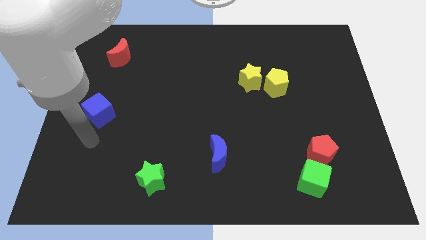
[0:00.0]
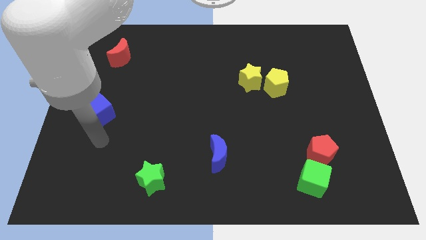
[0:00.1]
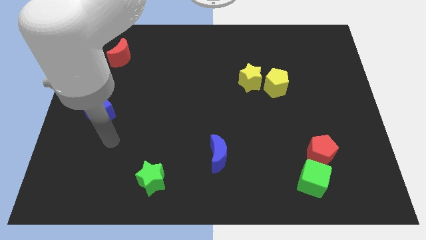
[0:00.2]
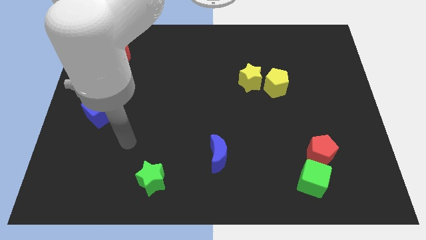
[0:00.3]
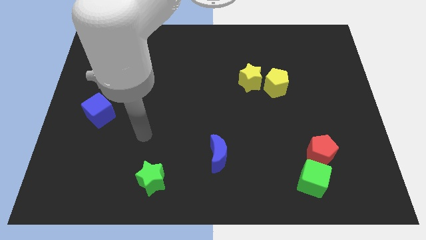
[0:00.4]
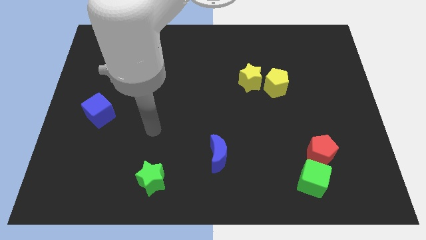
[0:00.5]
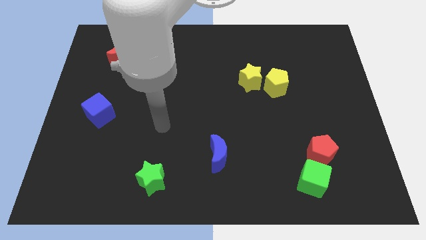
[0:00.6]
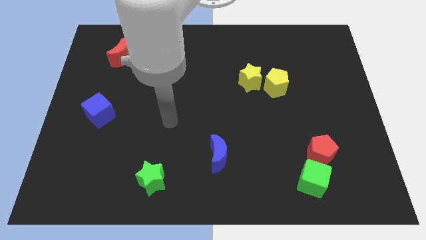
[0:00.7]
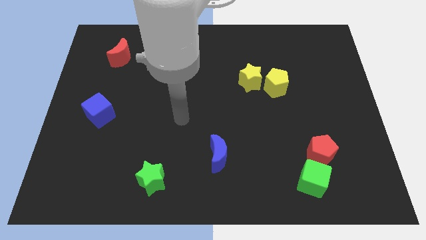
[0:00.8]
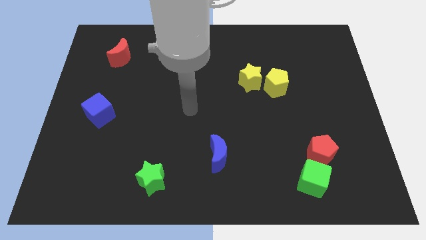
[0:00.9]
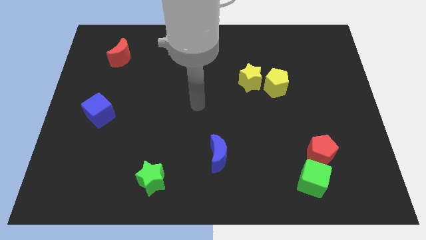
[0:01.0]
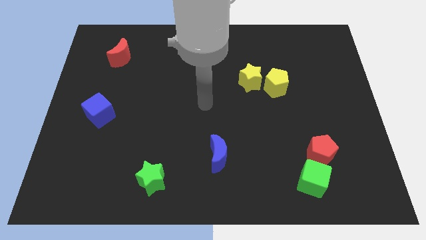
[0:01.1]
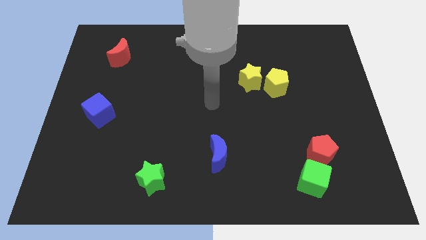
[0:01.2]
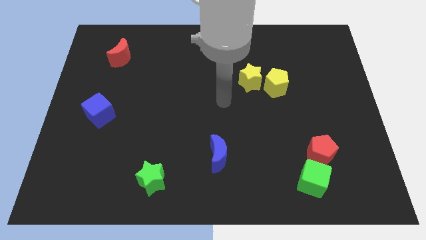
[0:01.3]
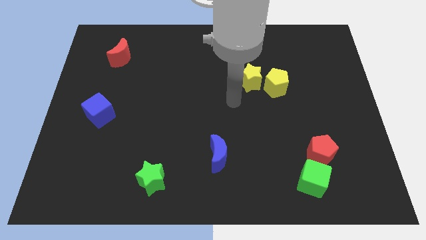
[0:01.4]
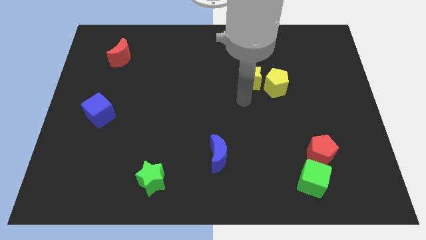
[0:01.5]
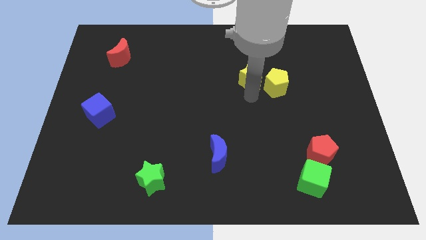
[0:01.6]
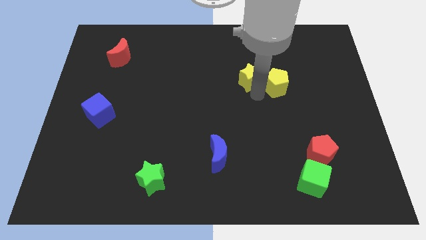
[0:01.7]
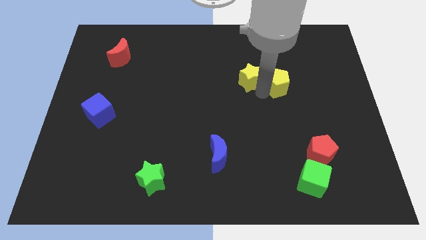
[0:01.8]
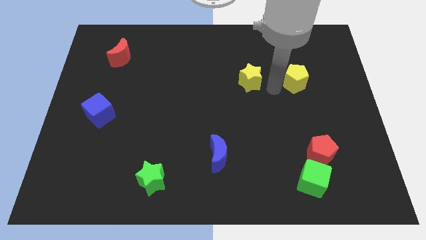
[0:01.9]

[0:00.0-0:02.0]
move the yellow star away from the yellow pentagon

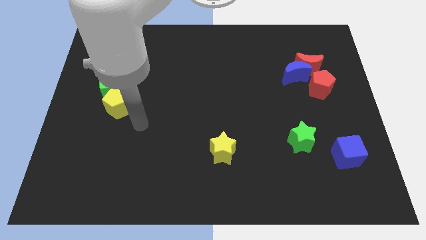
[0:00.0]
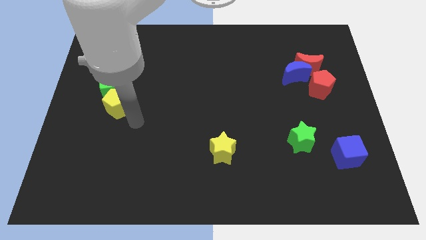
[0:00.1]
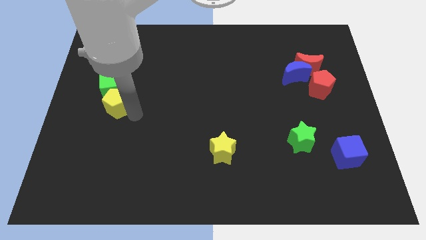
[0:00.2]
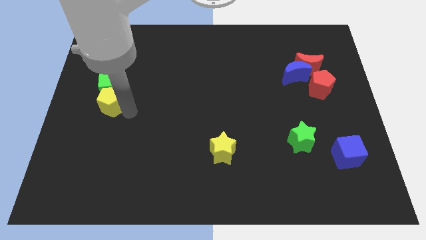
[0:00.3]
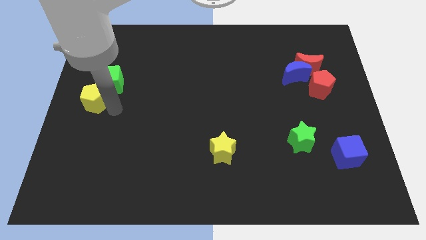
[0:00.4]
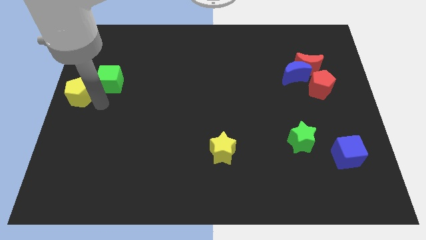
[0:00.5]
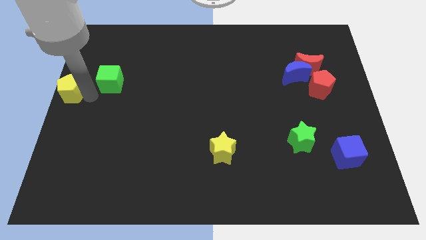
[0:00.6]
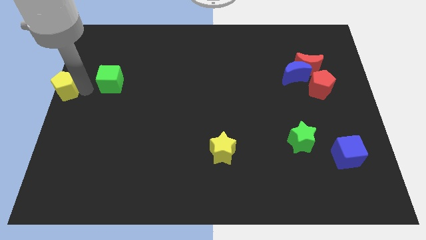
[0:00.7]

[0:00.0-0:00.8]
move the green cube away from the yellow pentagon

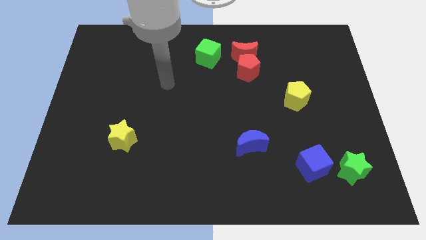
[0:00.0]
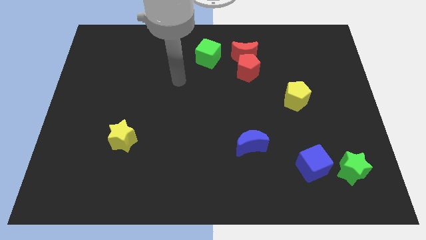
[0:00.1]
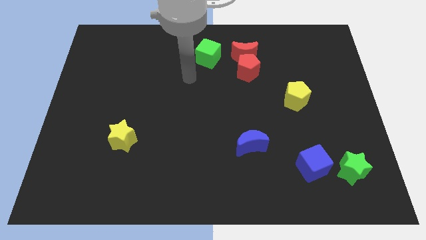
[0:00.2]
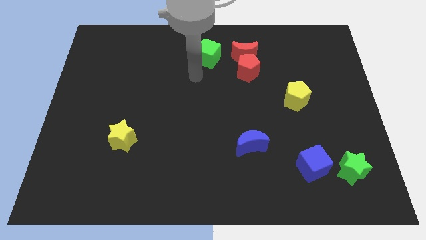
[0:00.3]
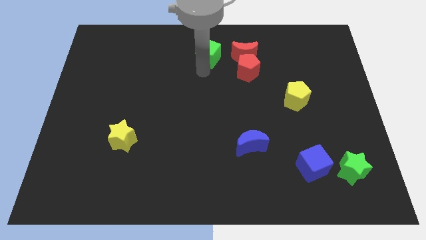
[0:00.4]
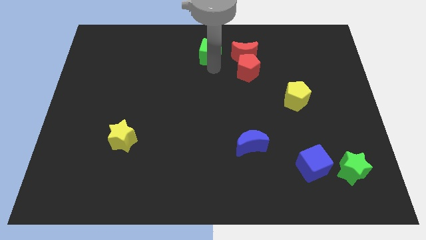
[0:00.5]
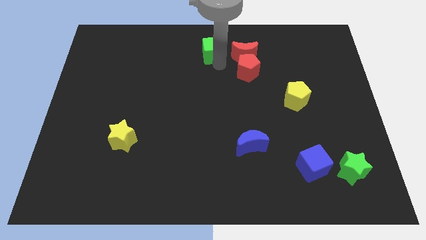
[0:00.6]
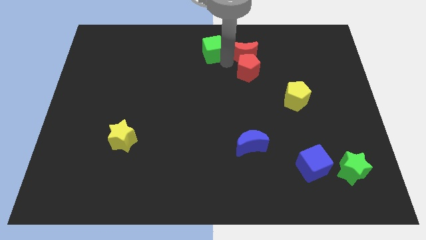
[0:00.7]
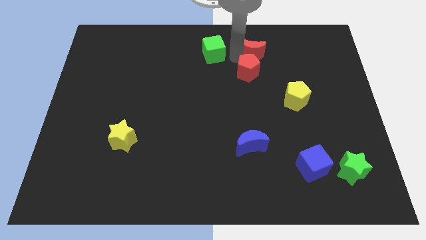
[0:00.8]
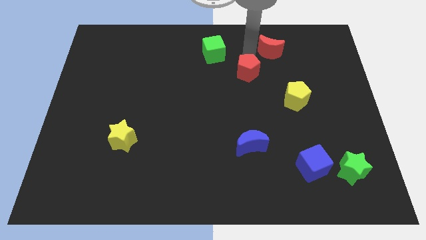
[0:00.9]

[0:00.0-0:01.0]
move the red pentagon away from the red moon

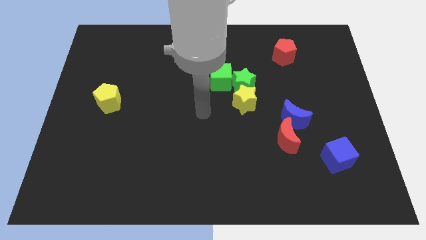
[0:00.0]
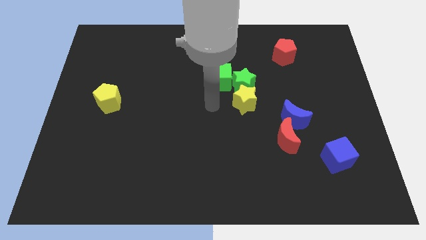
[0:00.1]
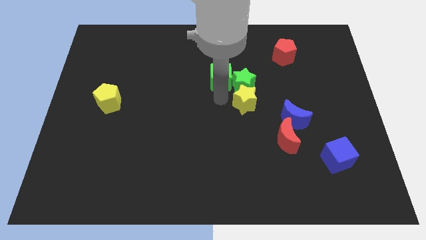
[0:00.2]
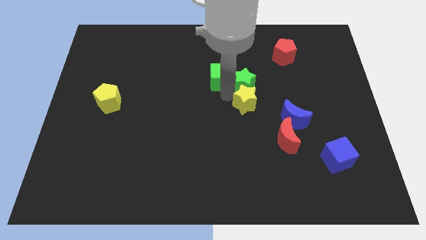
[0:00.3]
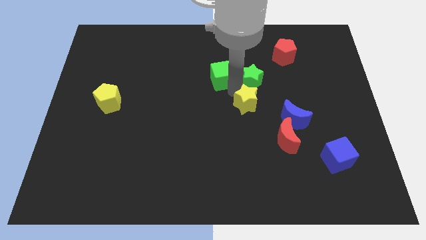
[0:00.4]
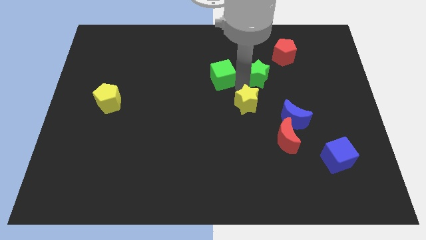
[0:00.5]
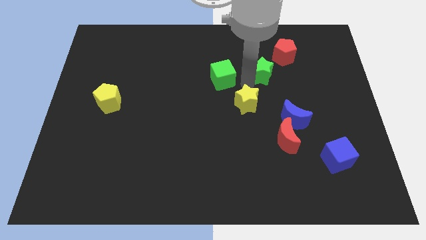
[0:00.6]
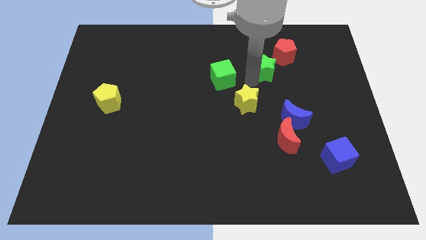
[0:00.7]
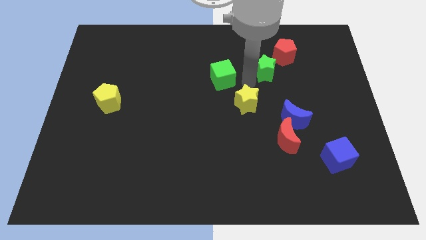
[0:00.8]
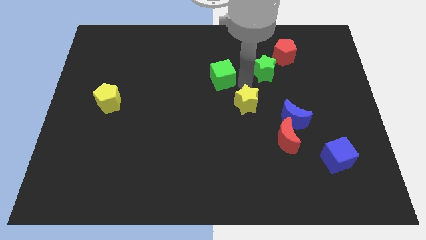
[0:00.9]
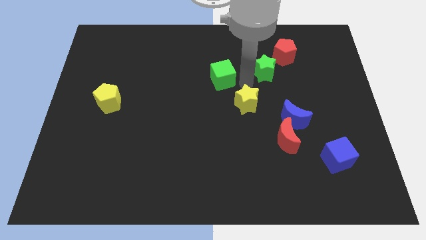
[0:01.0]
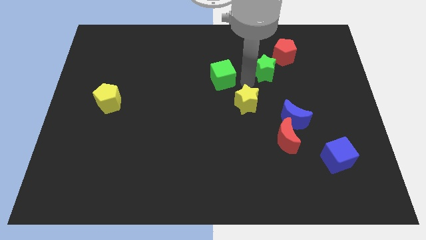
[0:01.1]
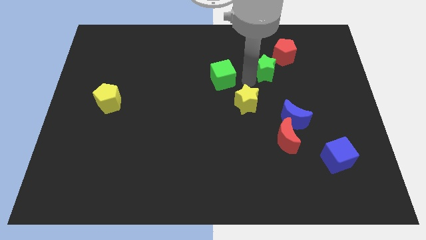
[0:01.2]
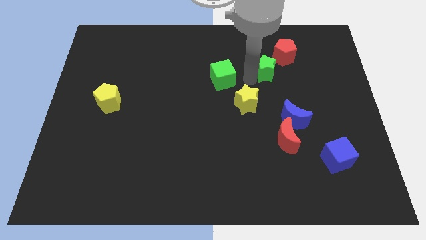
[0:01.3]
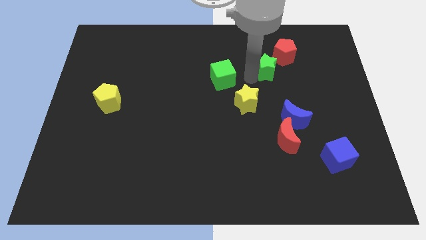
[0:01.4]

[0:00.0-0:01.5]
separate the green star from the yellow star and green cube

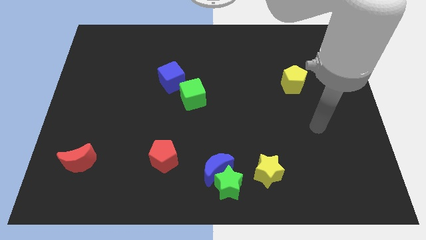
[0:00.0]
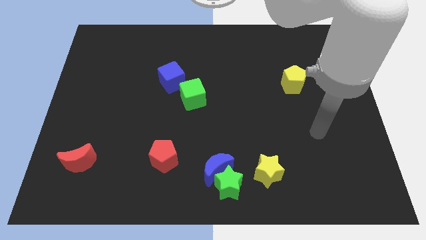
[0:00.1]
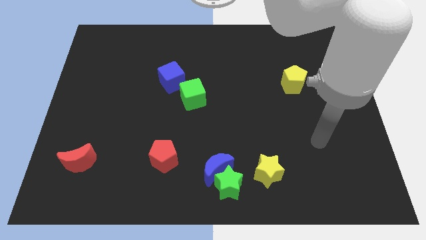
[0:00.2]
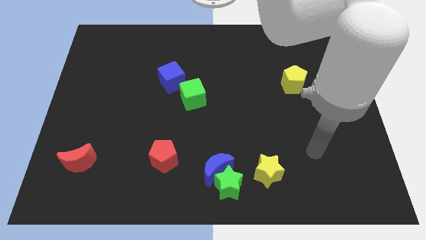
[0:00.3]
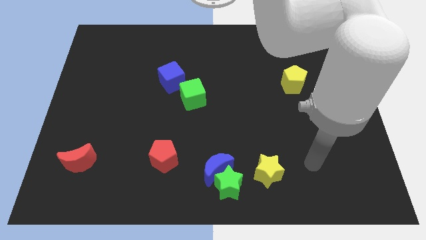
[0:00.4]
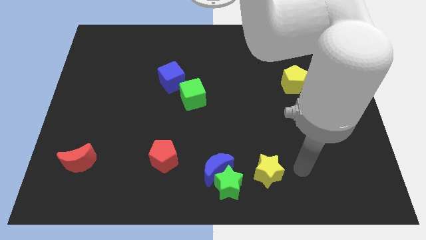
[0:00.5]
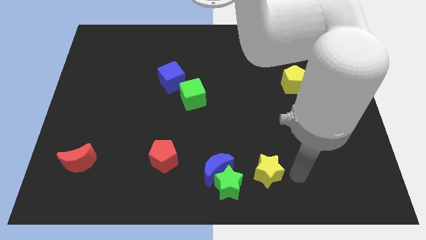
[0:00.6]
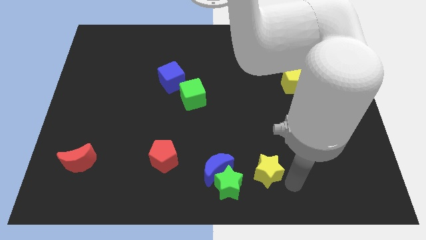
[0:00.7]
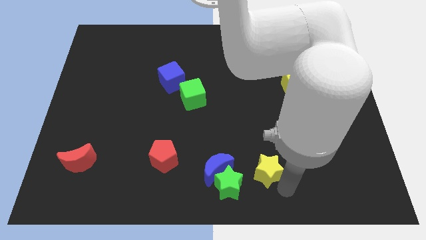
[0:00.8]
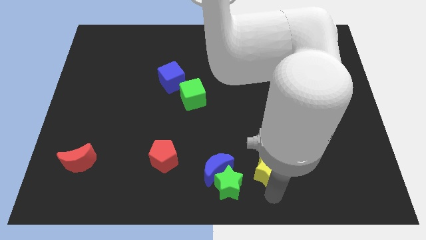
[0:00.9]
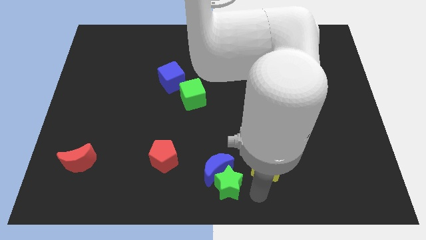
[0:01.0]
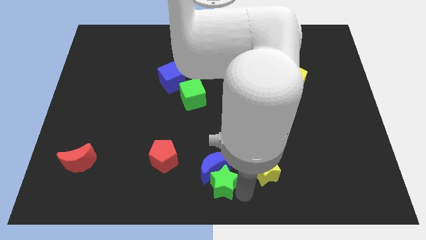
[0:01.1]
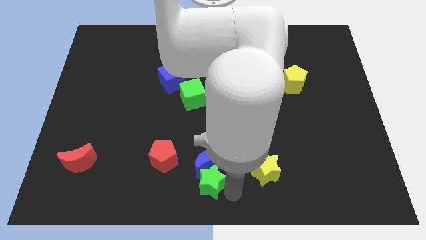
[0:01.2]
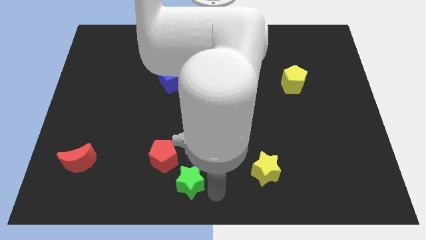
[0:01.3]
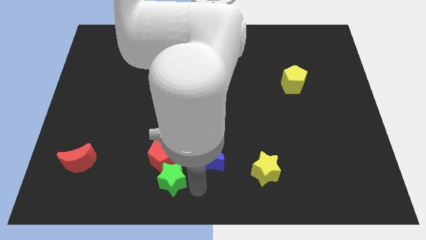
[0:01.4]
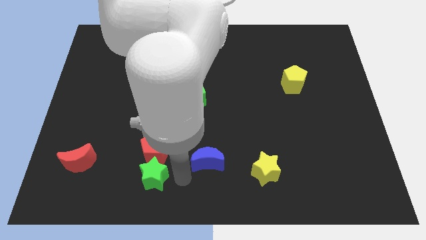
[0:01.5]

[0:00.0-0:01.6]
pull the blue moon apart from the green star

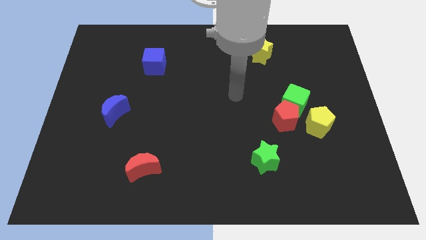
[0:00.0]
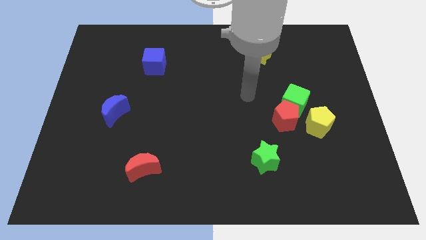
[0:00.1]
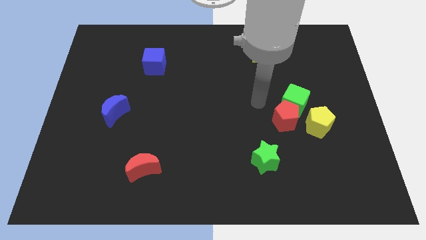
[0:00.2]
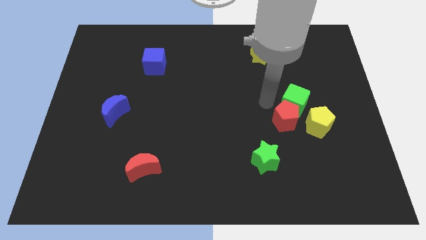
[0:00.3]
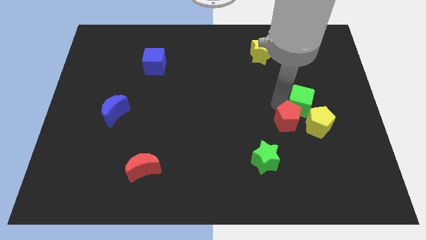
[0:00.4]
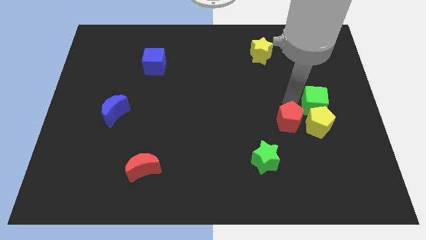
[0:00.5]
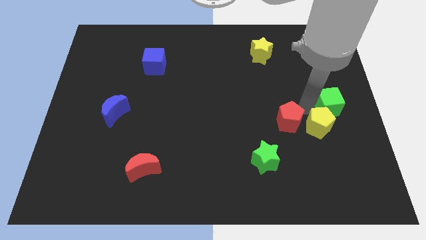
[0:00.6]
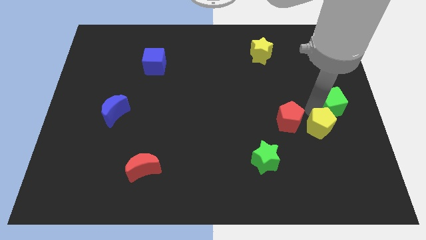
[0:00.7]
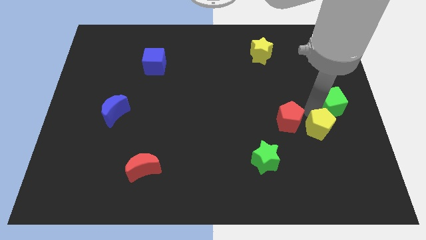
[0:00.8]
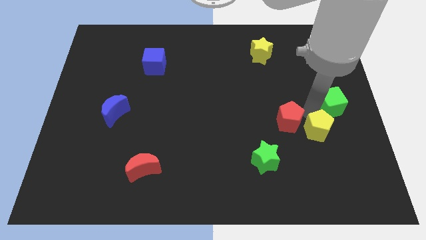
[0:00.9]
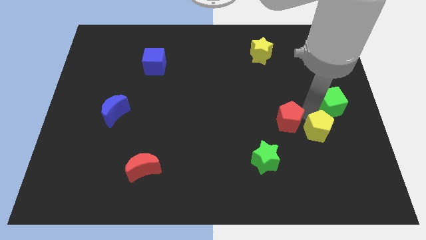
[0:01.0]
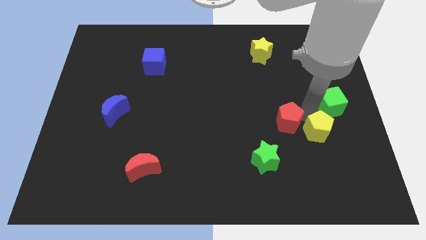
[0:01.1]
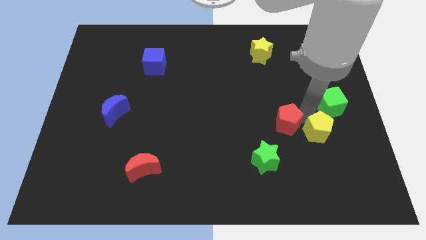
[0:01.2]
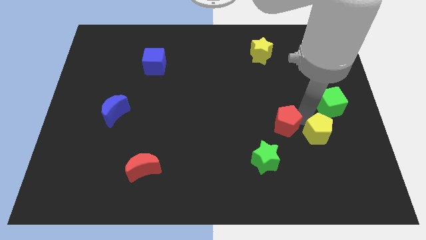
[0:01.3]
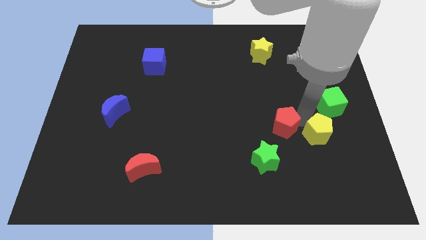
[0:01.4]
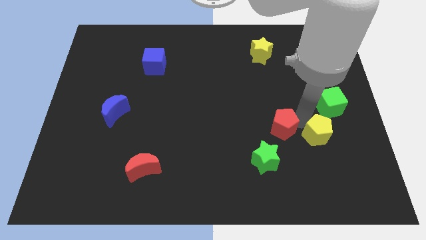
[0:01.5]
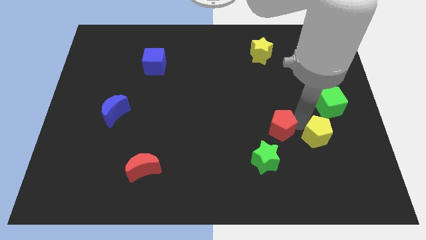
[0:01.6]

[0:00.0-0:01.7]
separate the red pentagon from the green cube and yellow pentagon

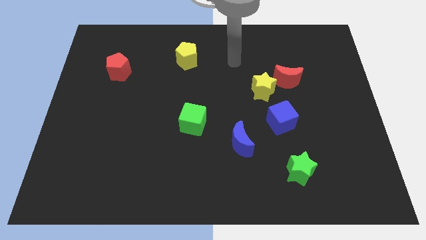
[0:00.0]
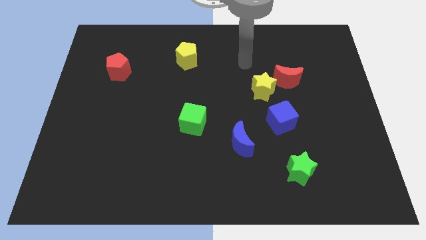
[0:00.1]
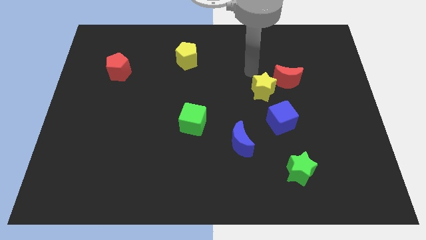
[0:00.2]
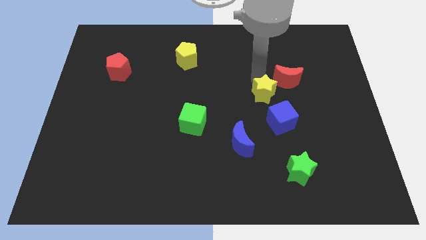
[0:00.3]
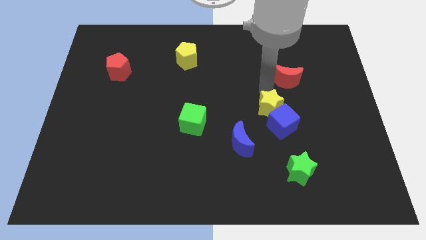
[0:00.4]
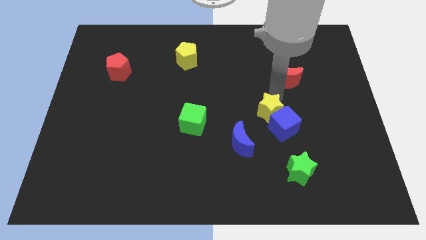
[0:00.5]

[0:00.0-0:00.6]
pull the red moon apart from the yellow star

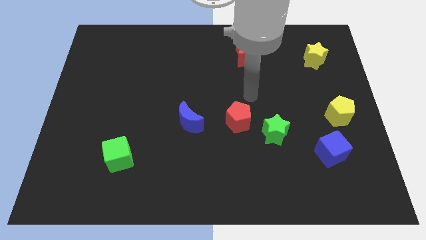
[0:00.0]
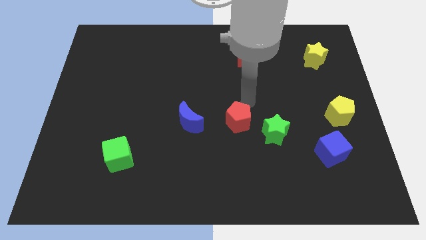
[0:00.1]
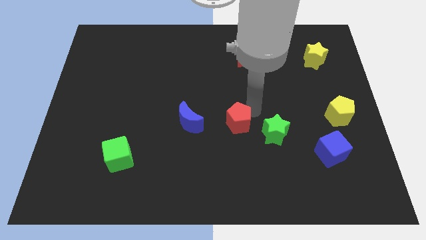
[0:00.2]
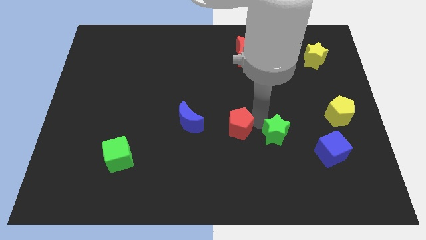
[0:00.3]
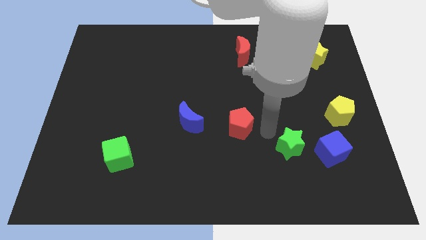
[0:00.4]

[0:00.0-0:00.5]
separate the red pentagon from the green star
